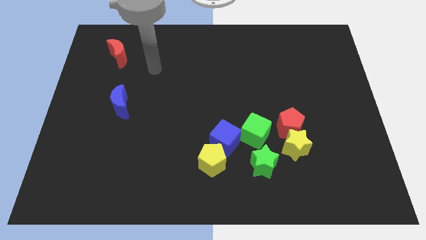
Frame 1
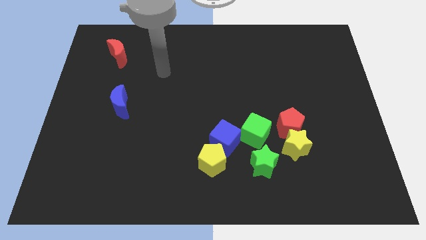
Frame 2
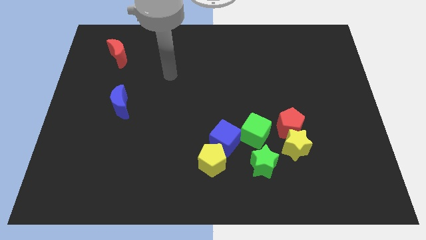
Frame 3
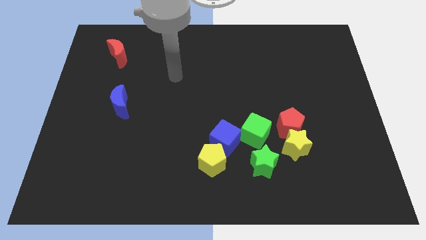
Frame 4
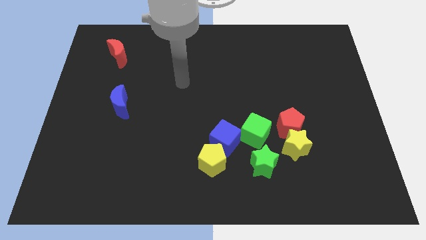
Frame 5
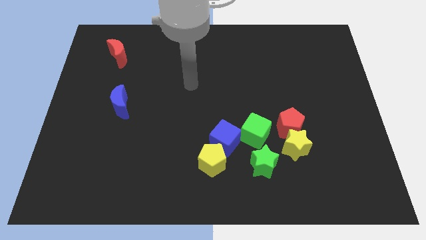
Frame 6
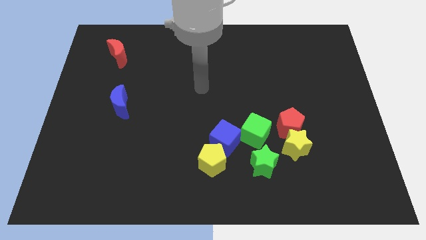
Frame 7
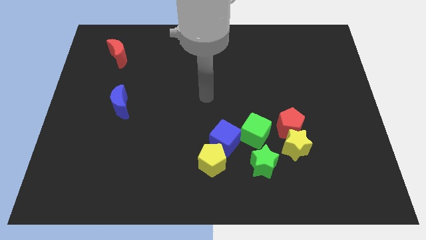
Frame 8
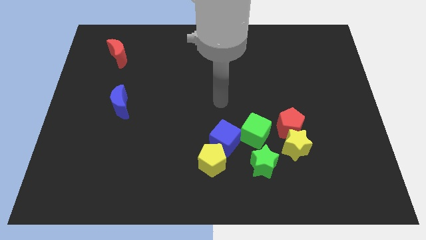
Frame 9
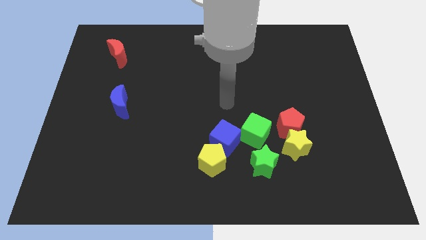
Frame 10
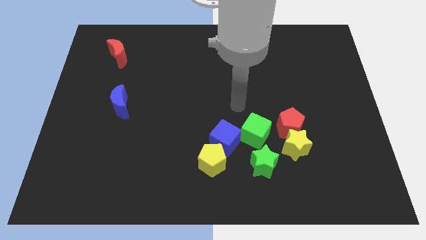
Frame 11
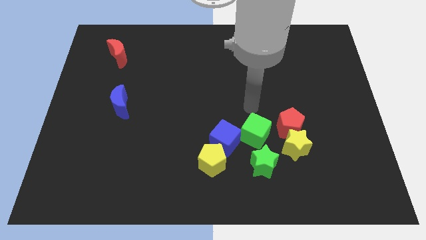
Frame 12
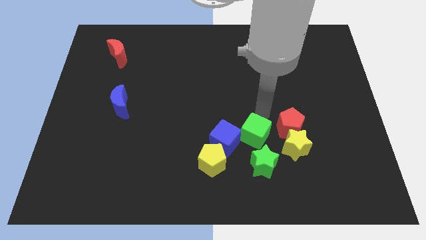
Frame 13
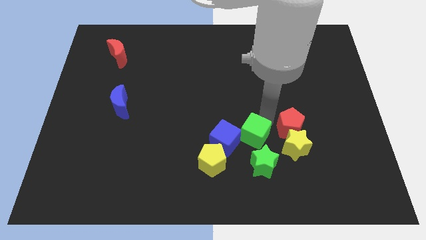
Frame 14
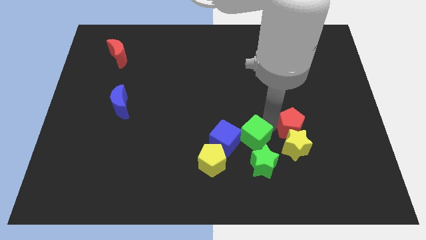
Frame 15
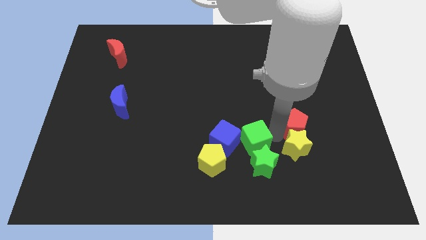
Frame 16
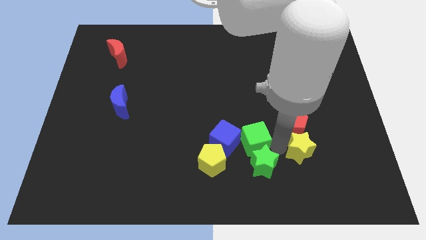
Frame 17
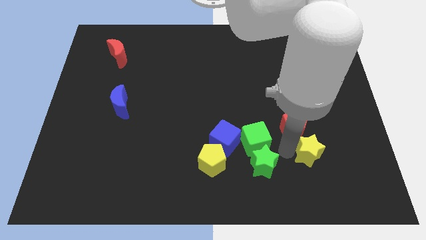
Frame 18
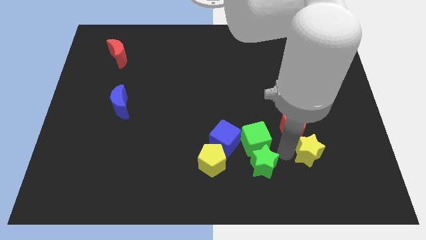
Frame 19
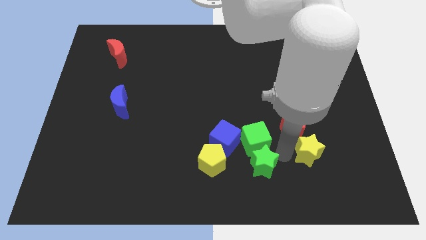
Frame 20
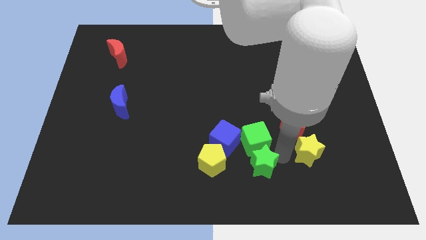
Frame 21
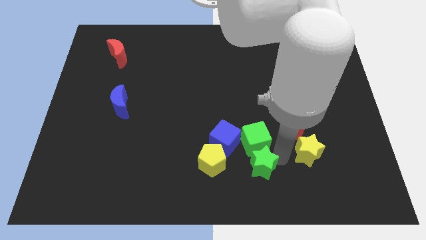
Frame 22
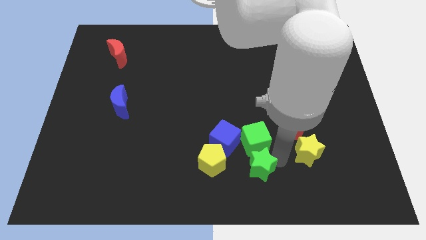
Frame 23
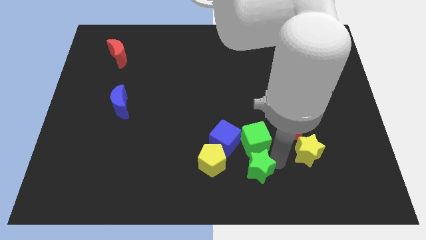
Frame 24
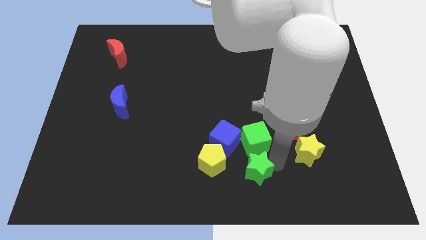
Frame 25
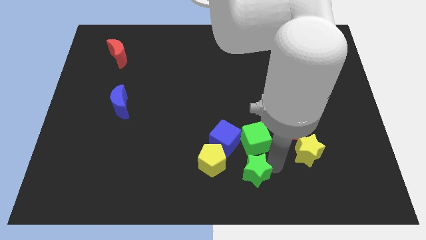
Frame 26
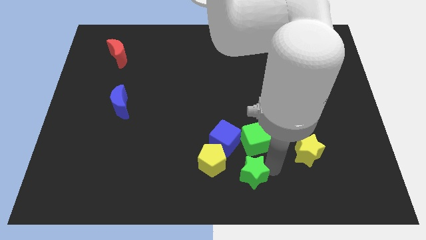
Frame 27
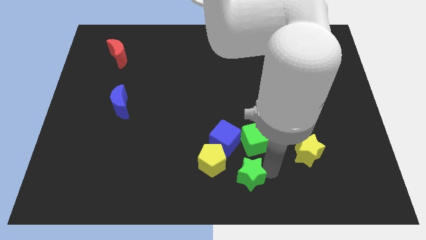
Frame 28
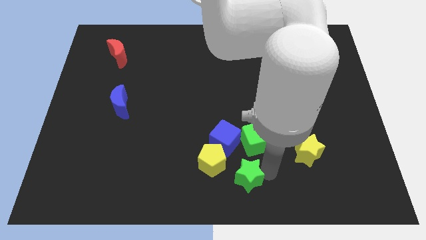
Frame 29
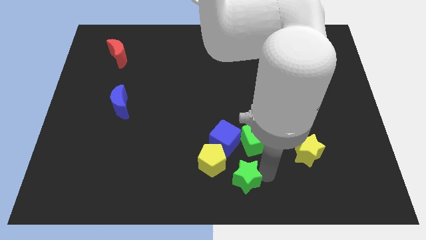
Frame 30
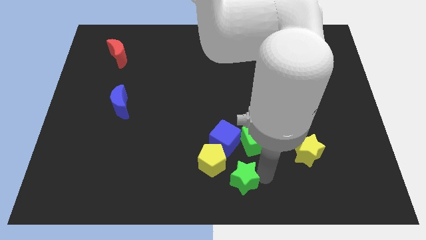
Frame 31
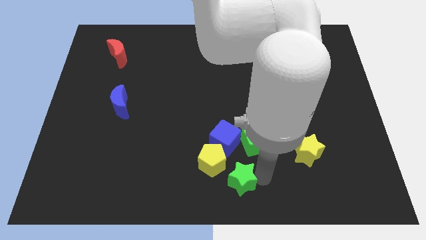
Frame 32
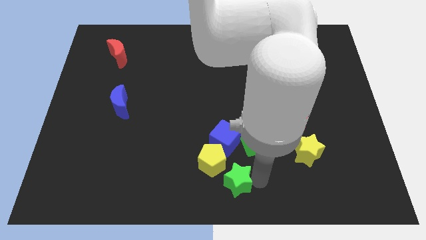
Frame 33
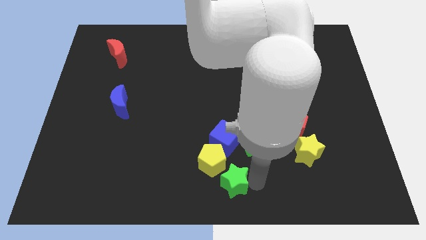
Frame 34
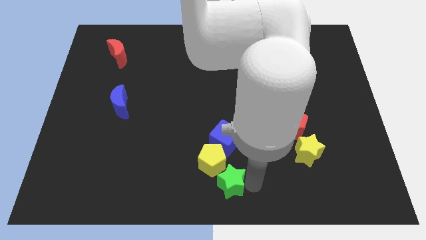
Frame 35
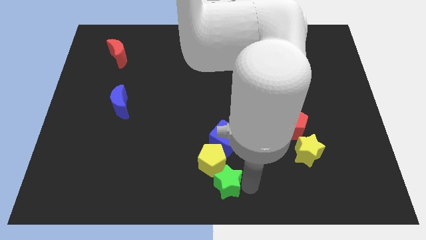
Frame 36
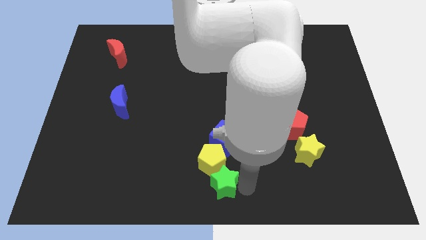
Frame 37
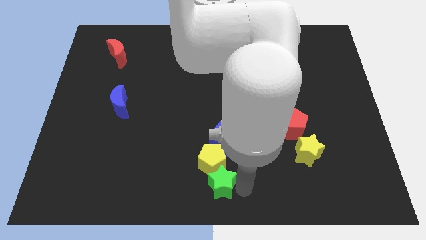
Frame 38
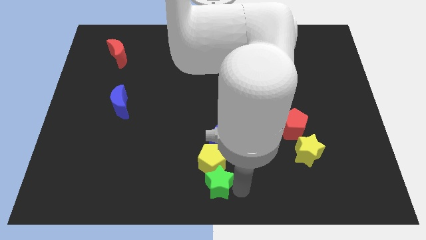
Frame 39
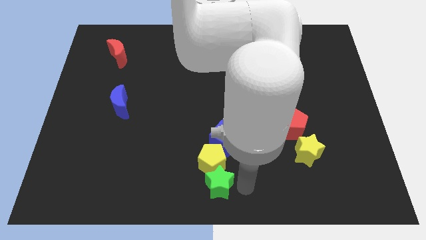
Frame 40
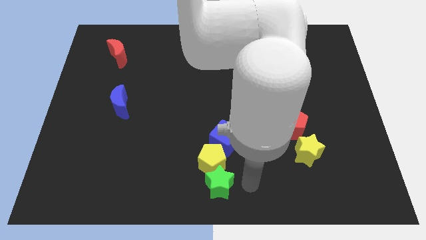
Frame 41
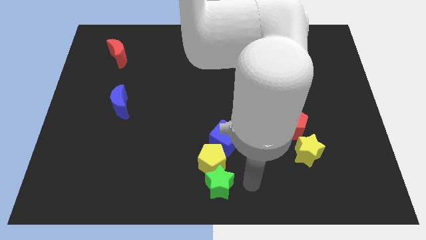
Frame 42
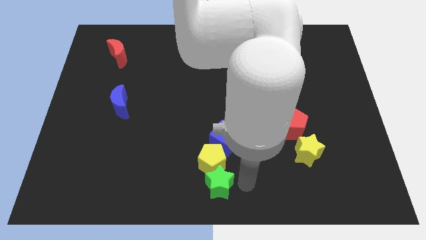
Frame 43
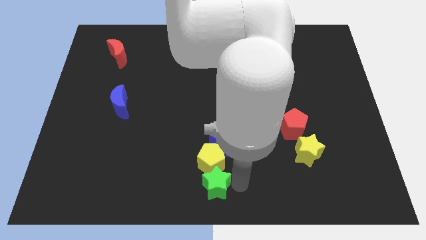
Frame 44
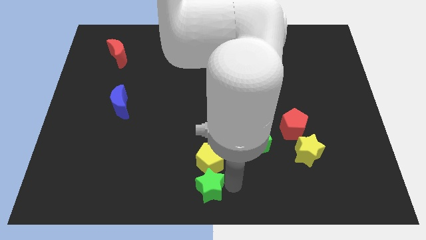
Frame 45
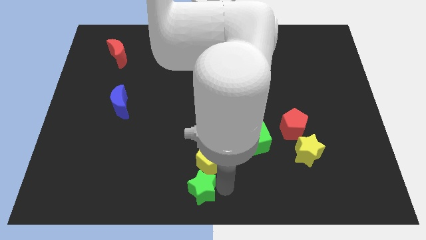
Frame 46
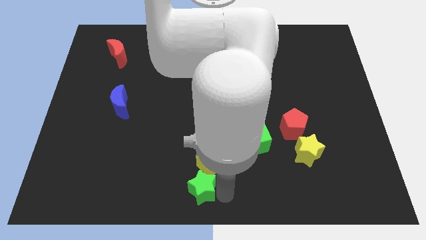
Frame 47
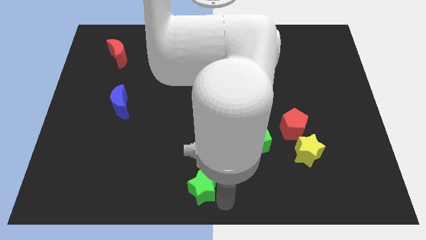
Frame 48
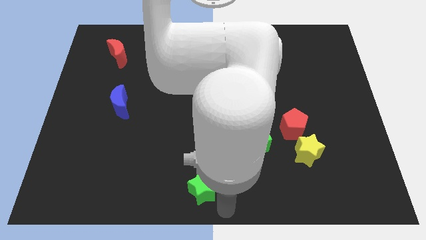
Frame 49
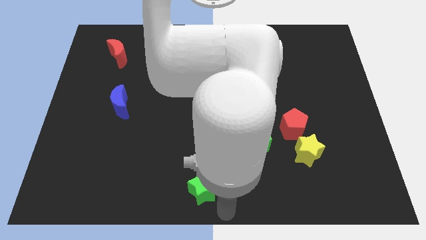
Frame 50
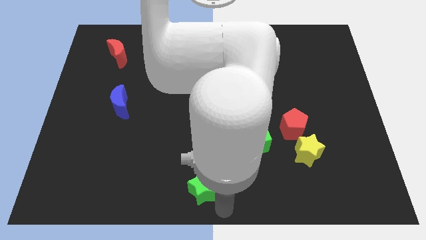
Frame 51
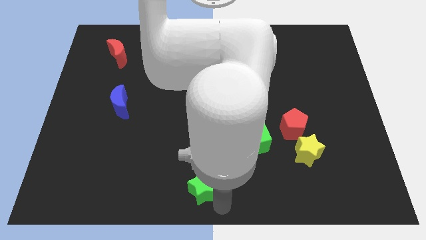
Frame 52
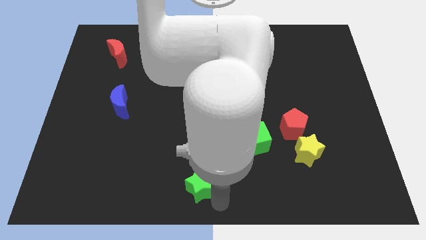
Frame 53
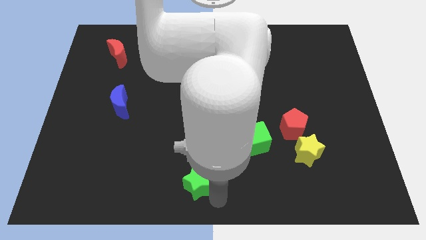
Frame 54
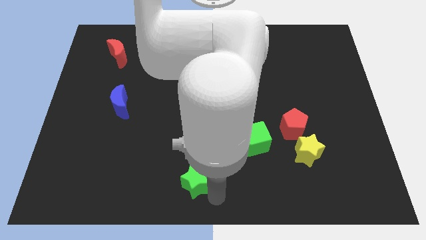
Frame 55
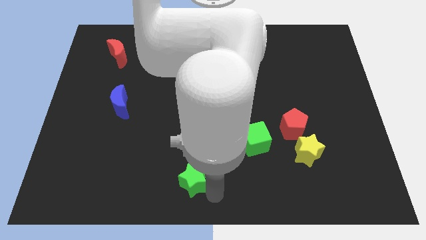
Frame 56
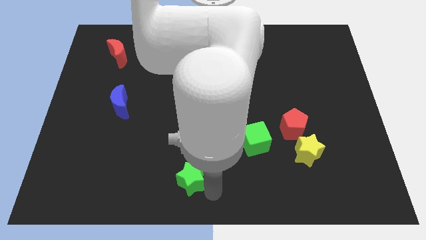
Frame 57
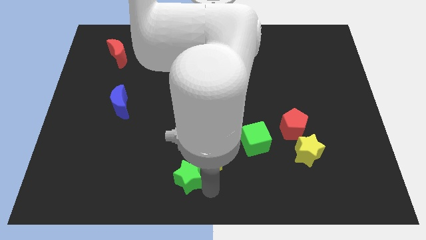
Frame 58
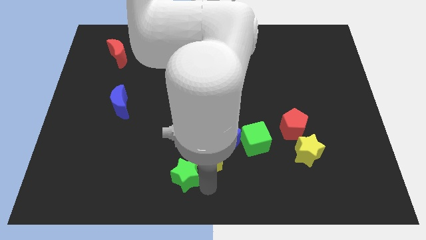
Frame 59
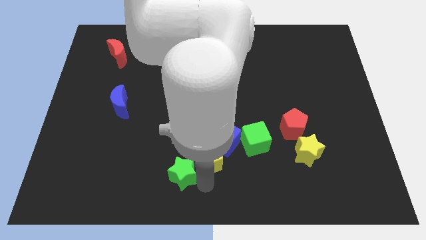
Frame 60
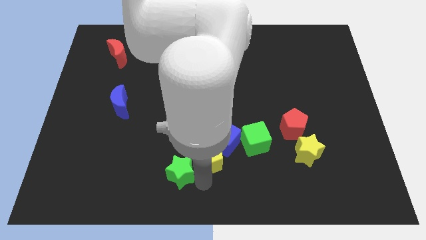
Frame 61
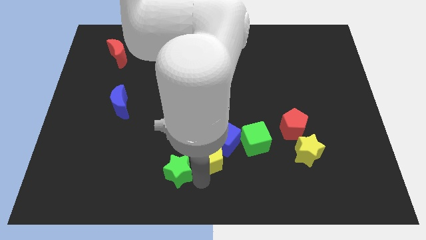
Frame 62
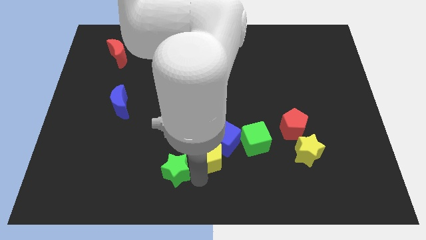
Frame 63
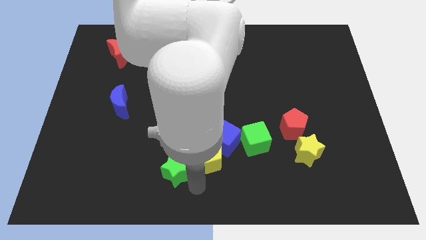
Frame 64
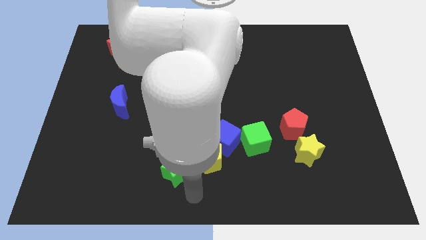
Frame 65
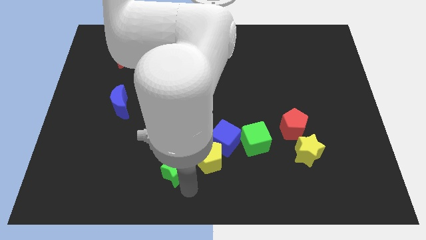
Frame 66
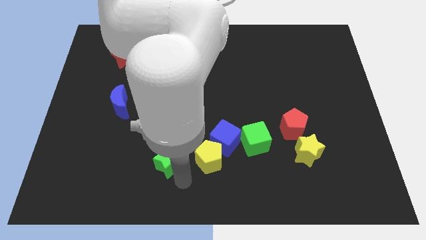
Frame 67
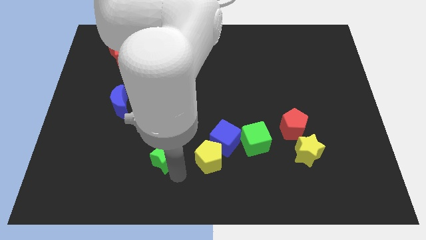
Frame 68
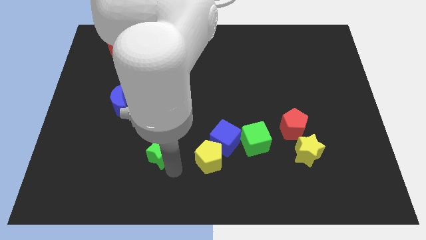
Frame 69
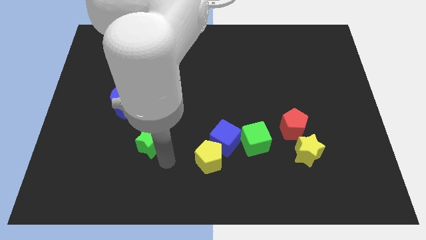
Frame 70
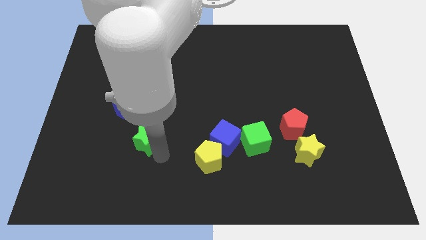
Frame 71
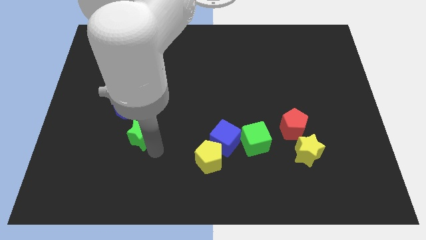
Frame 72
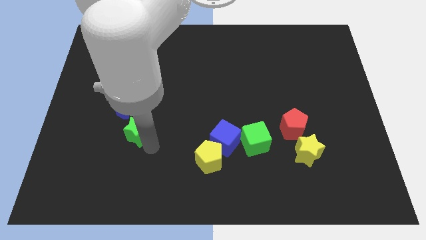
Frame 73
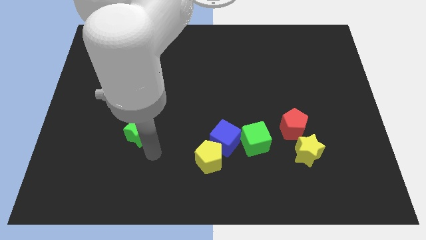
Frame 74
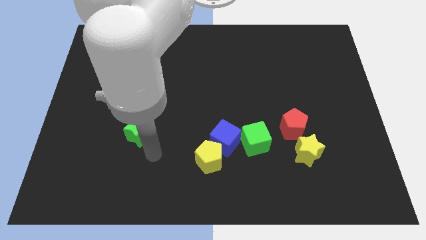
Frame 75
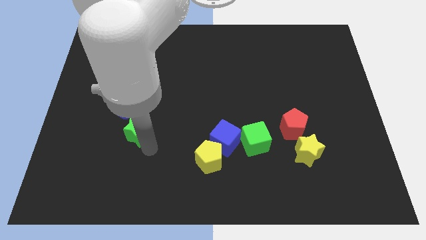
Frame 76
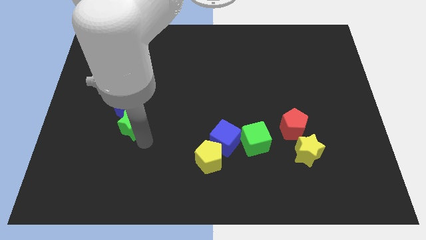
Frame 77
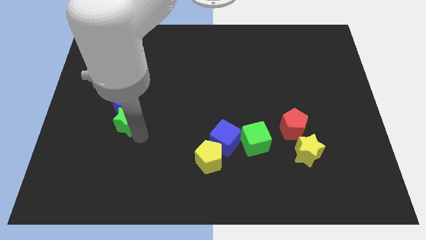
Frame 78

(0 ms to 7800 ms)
move the green star next to the blue moon
